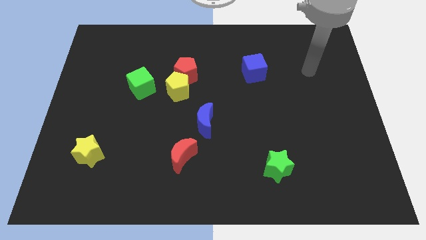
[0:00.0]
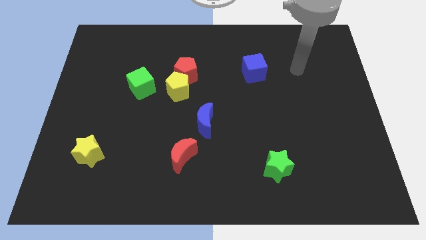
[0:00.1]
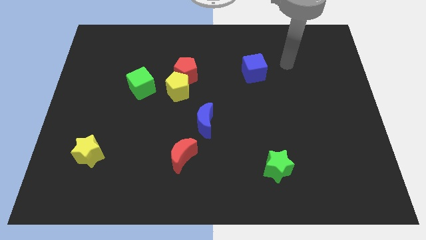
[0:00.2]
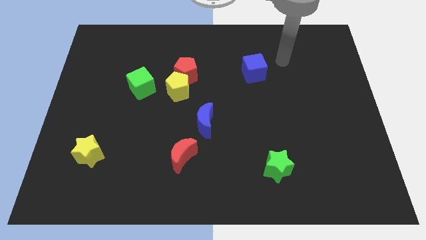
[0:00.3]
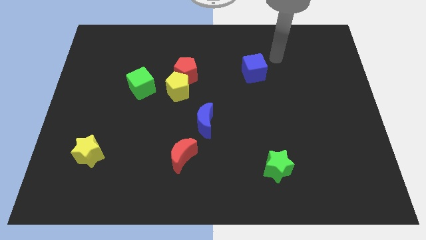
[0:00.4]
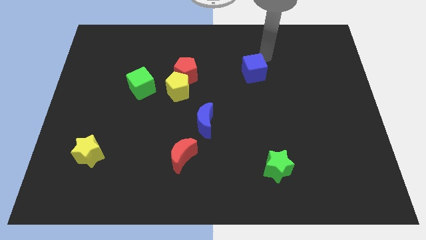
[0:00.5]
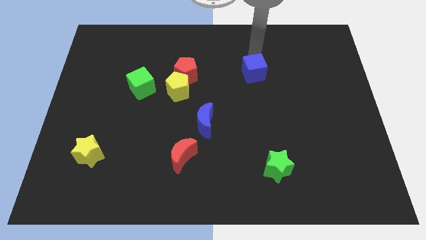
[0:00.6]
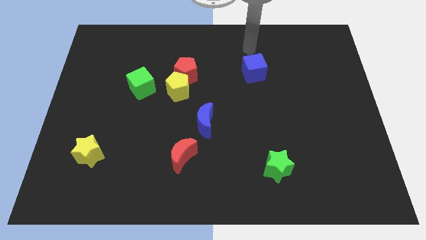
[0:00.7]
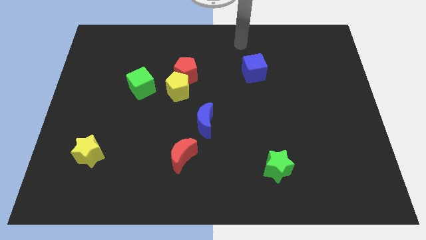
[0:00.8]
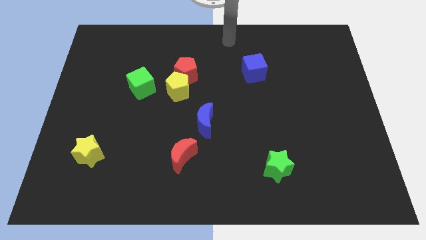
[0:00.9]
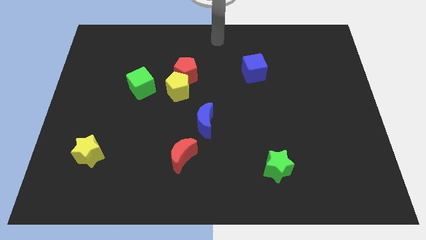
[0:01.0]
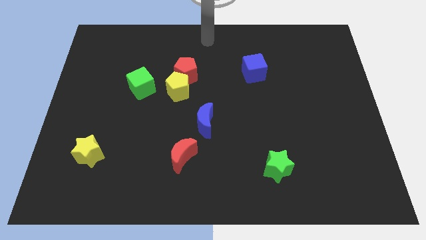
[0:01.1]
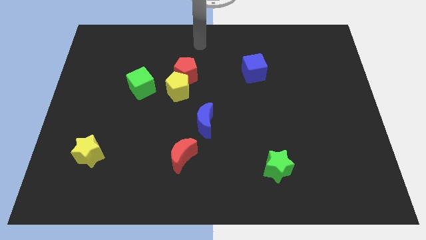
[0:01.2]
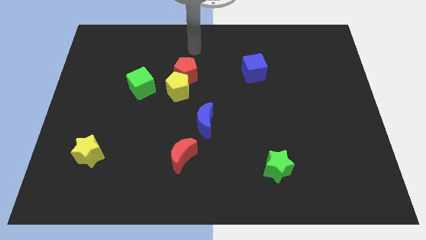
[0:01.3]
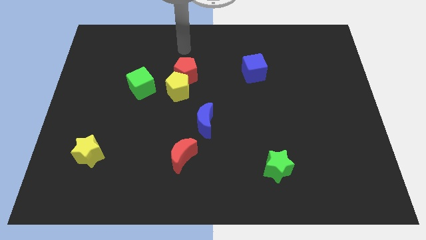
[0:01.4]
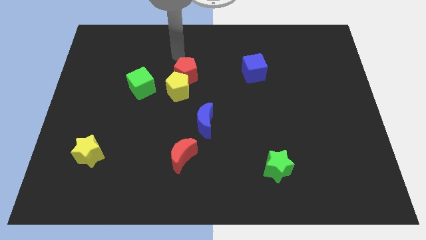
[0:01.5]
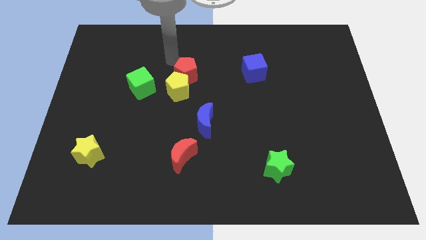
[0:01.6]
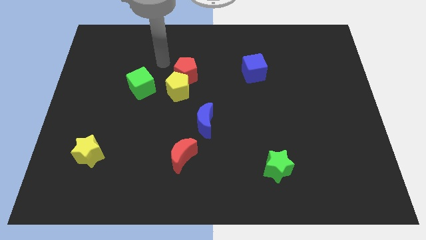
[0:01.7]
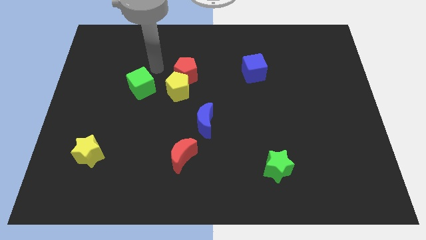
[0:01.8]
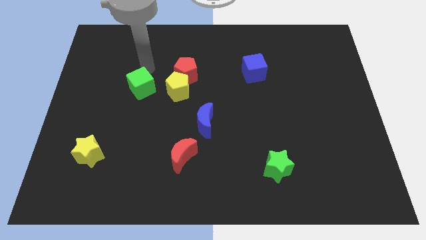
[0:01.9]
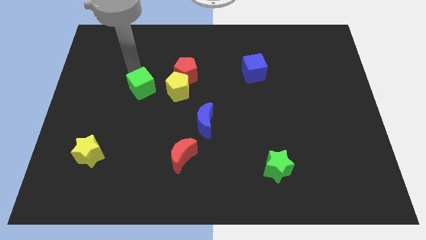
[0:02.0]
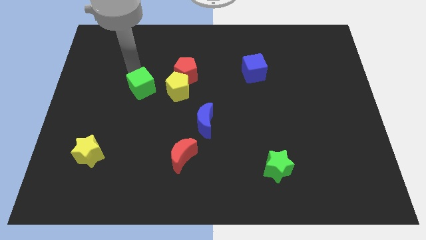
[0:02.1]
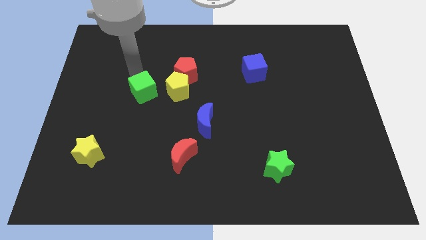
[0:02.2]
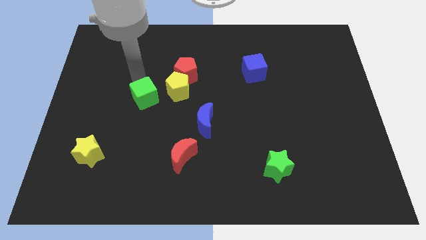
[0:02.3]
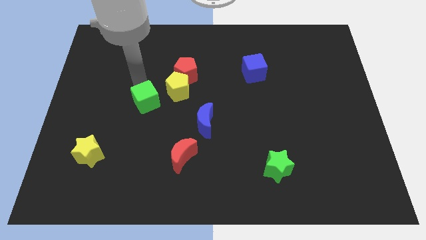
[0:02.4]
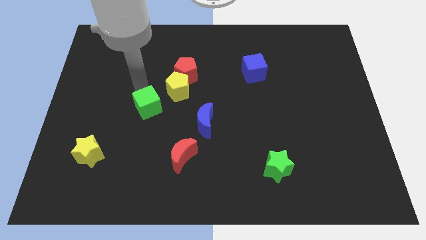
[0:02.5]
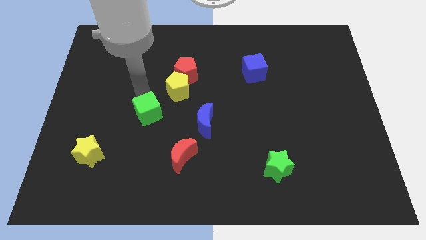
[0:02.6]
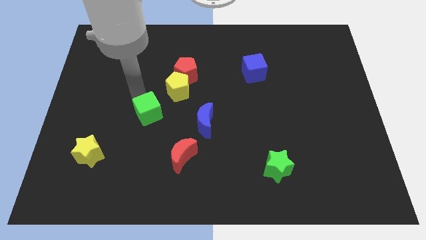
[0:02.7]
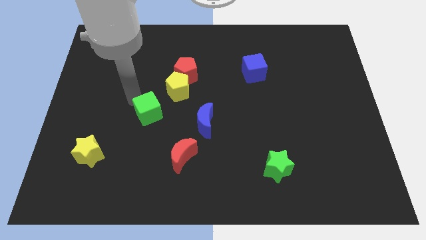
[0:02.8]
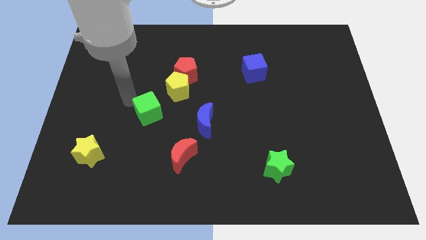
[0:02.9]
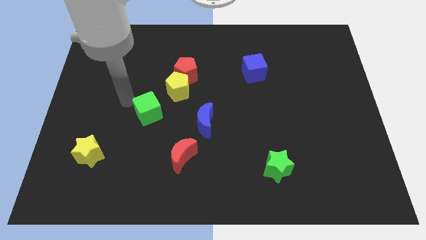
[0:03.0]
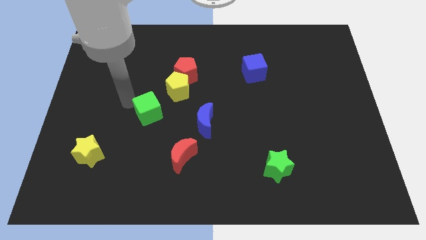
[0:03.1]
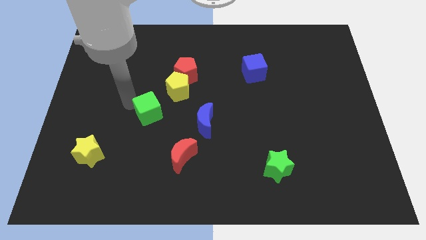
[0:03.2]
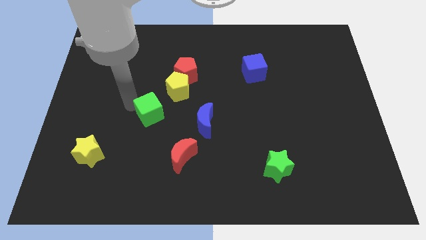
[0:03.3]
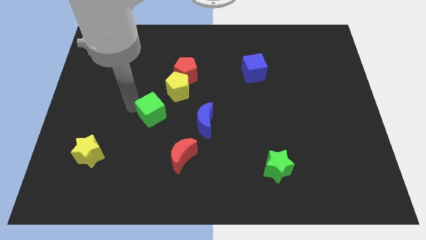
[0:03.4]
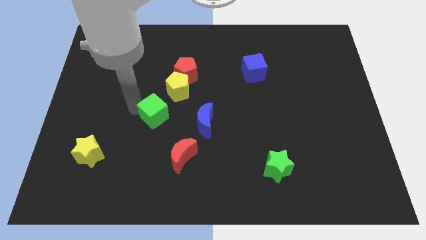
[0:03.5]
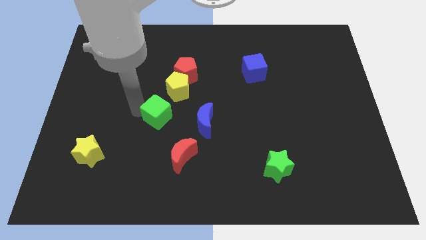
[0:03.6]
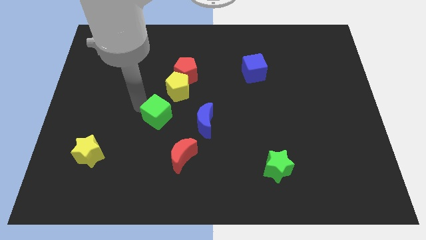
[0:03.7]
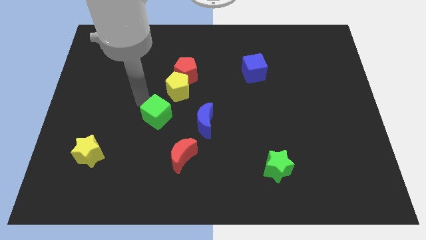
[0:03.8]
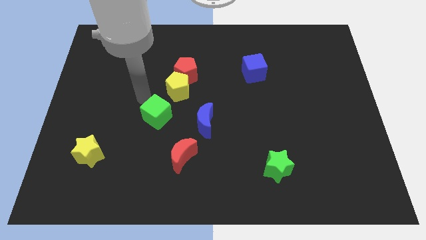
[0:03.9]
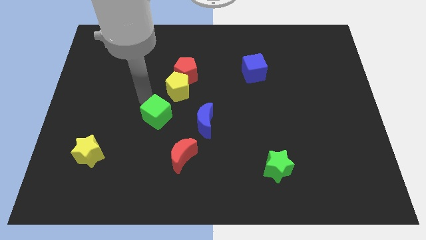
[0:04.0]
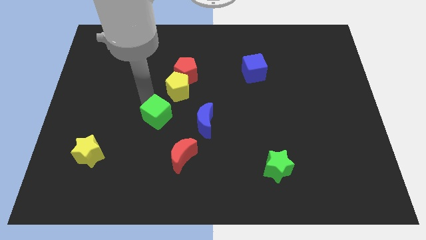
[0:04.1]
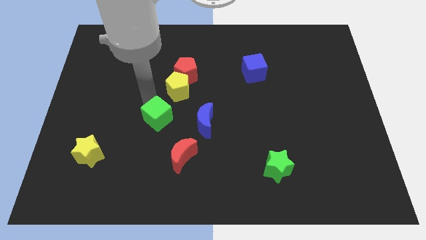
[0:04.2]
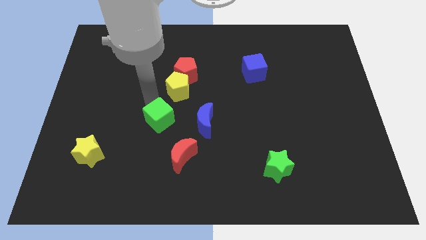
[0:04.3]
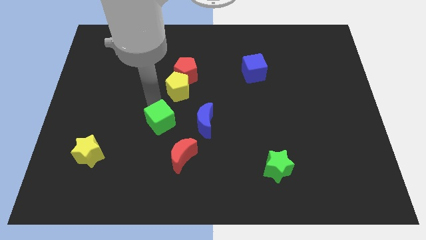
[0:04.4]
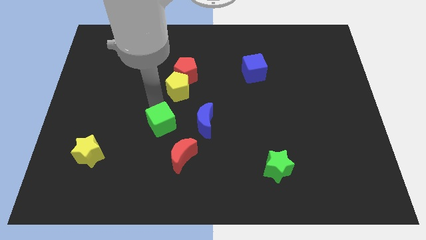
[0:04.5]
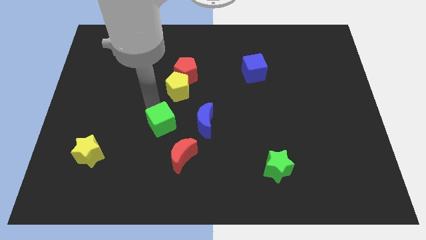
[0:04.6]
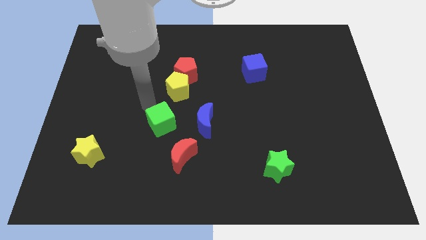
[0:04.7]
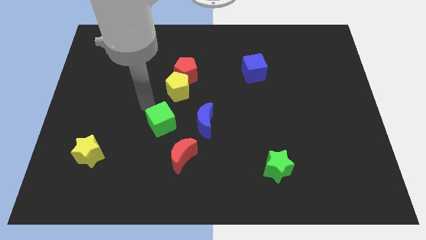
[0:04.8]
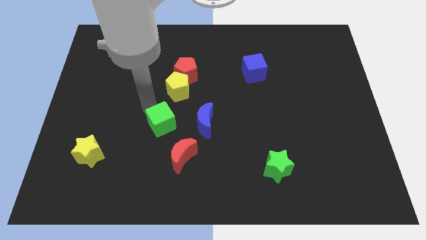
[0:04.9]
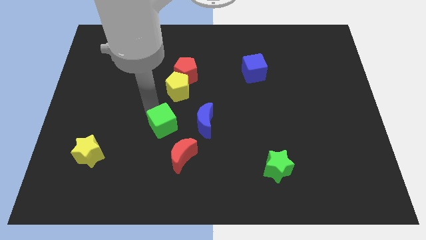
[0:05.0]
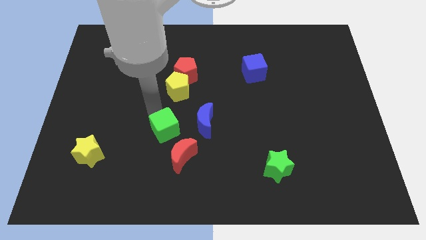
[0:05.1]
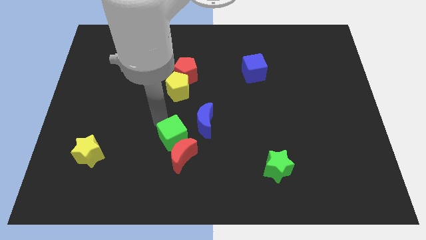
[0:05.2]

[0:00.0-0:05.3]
slide the green cube next to the red moon

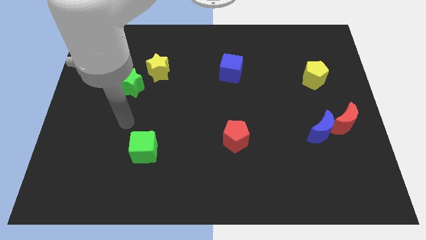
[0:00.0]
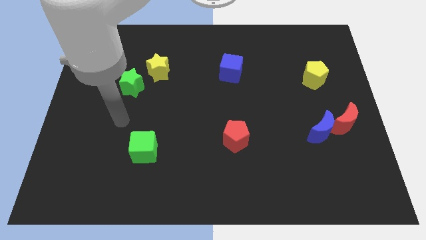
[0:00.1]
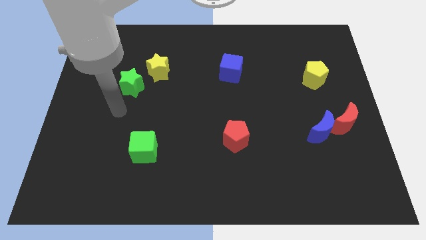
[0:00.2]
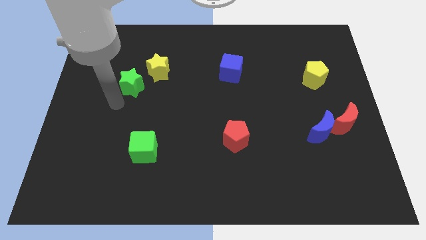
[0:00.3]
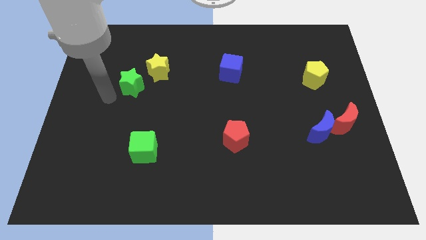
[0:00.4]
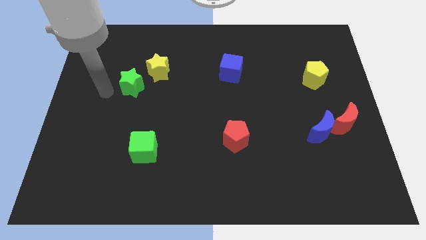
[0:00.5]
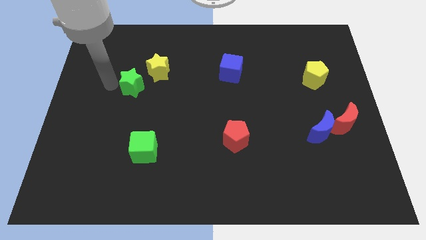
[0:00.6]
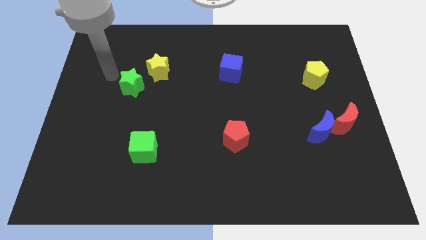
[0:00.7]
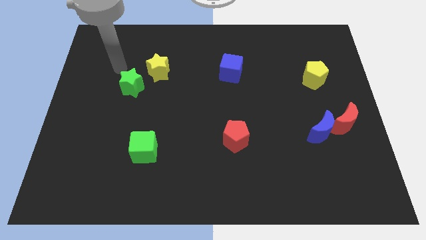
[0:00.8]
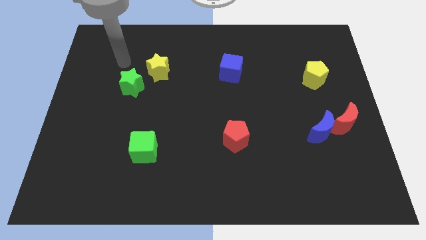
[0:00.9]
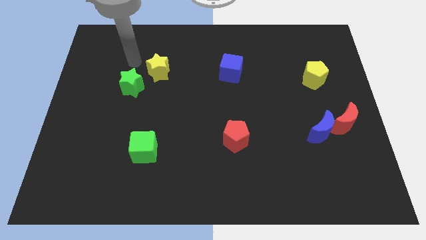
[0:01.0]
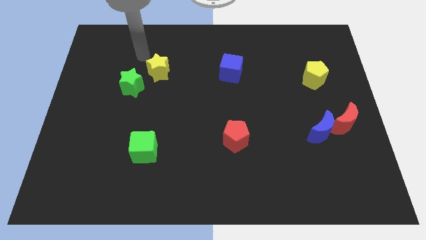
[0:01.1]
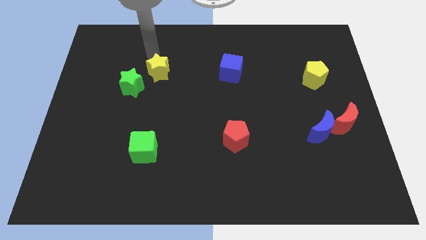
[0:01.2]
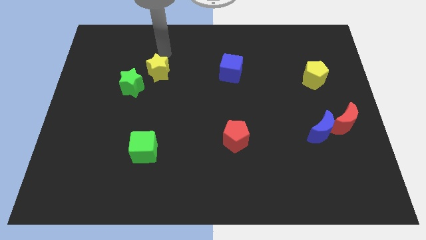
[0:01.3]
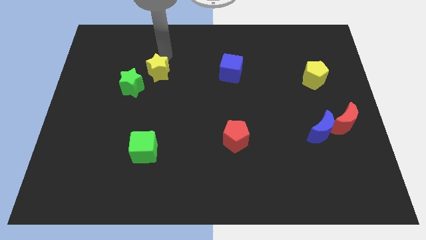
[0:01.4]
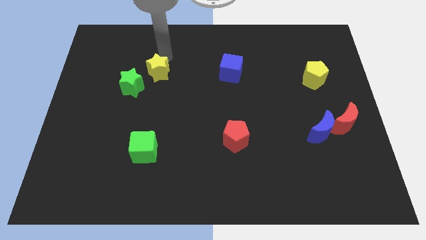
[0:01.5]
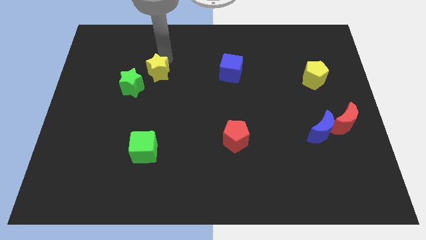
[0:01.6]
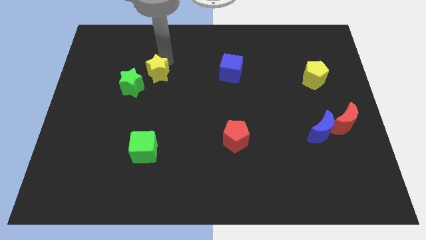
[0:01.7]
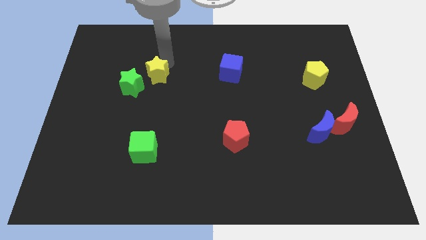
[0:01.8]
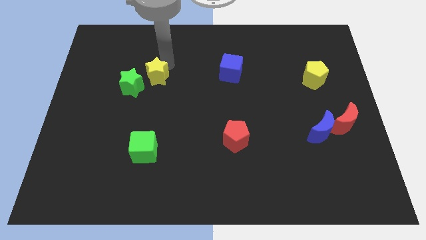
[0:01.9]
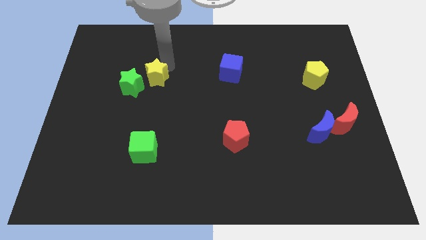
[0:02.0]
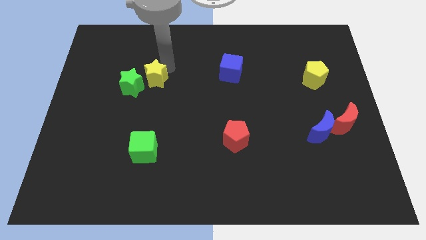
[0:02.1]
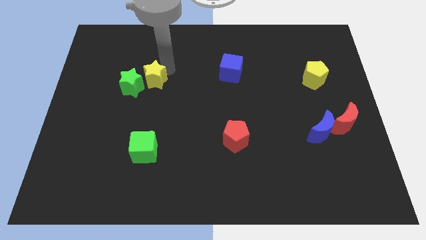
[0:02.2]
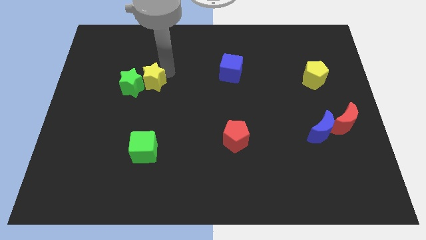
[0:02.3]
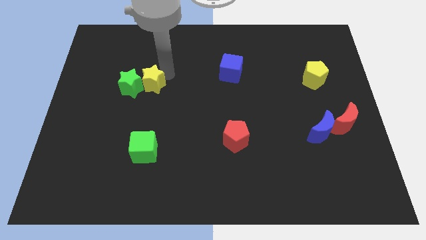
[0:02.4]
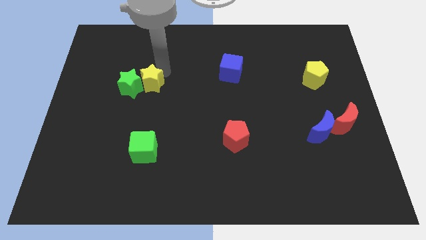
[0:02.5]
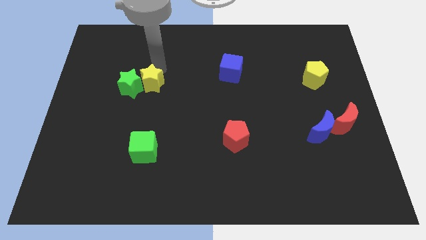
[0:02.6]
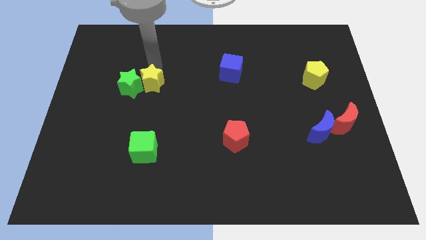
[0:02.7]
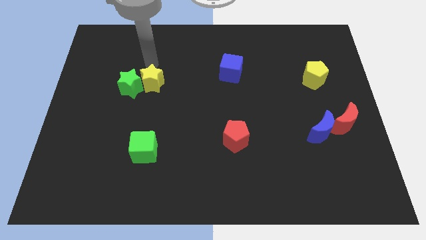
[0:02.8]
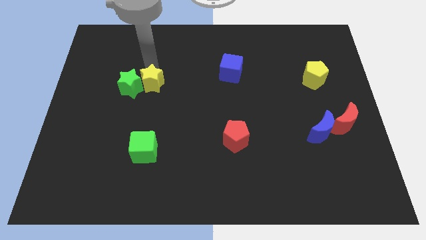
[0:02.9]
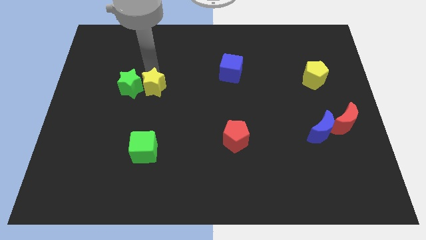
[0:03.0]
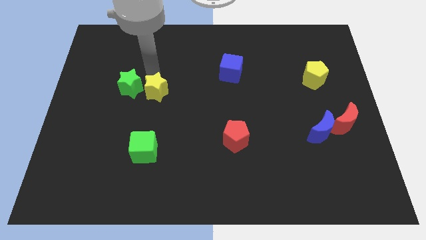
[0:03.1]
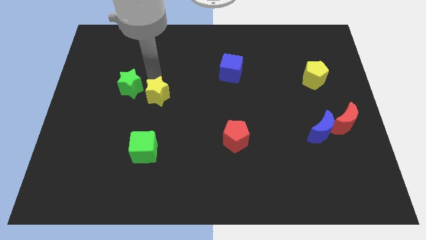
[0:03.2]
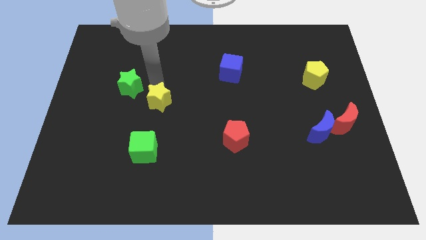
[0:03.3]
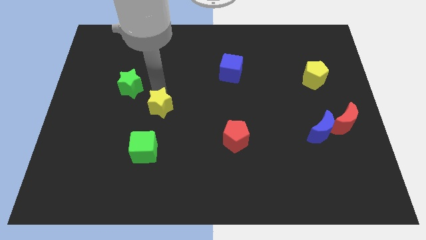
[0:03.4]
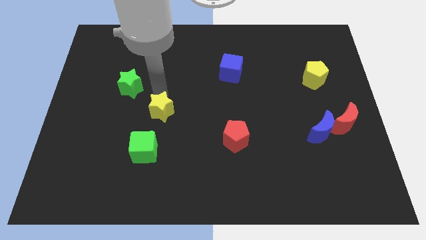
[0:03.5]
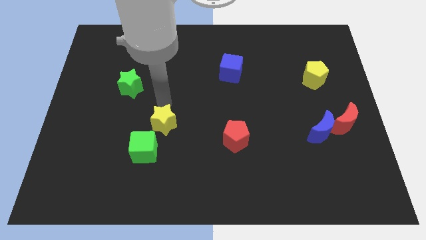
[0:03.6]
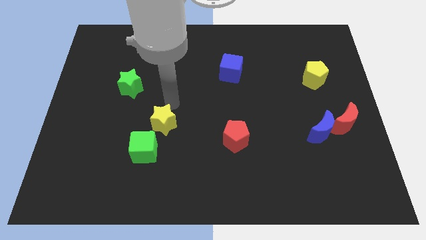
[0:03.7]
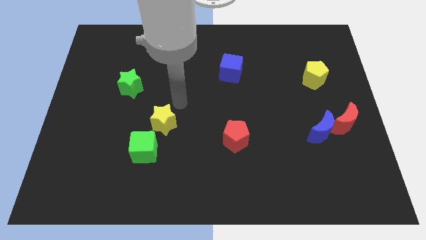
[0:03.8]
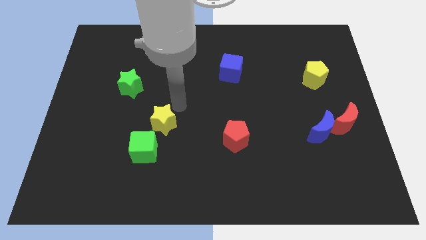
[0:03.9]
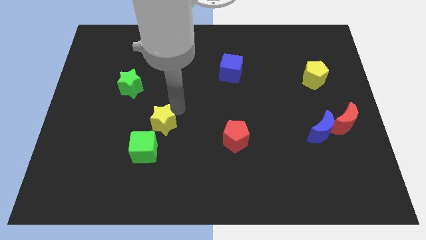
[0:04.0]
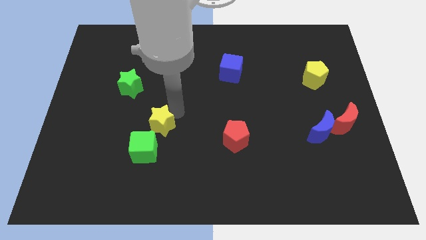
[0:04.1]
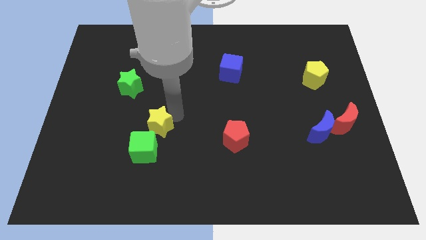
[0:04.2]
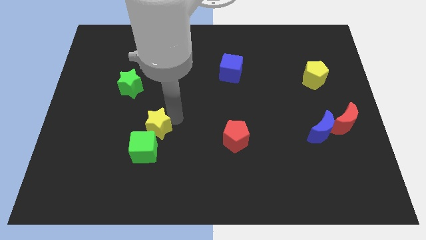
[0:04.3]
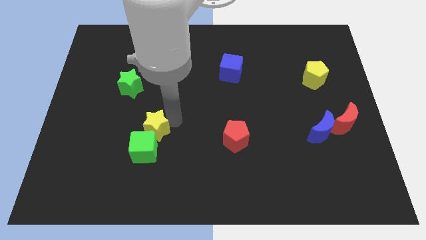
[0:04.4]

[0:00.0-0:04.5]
move the yellow star towards the green cube
